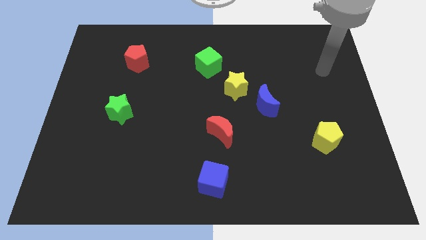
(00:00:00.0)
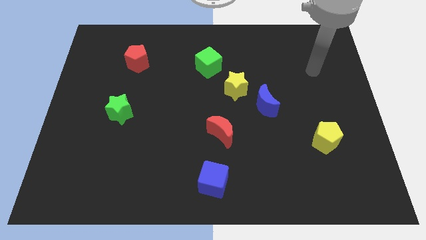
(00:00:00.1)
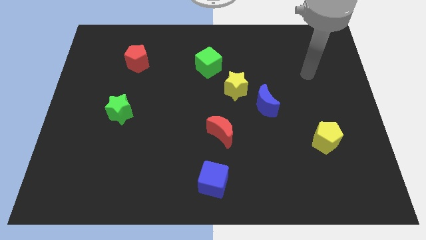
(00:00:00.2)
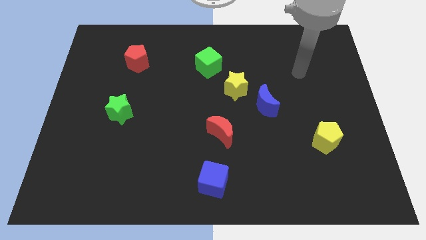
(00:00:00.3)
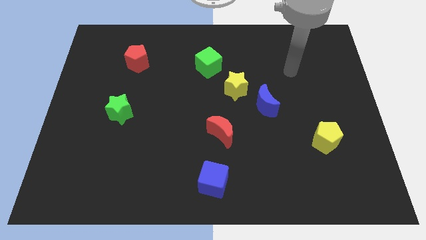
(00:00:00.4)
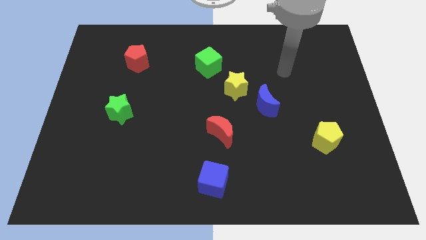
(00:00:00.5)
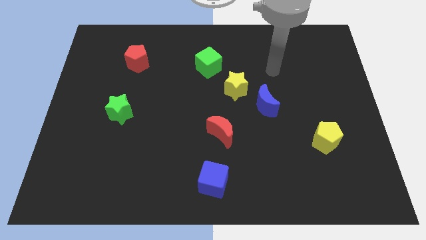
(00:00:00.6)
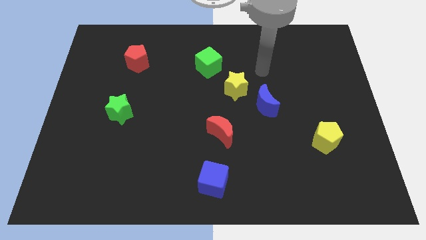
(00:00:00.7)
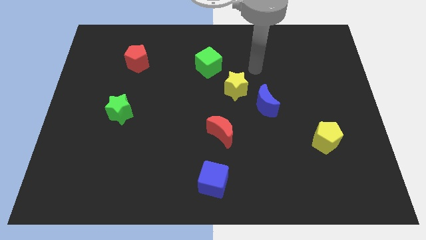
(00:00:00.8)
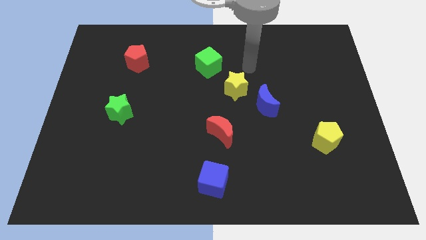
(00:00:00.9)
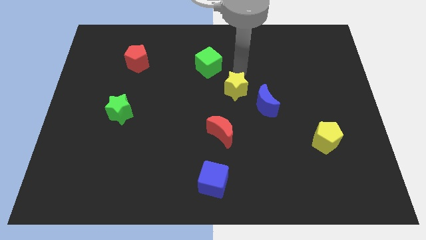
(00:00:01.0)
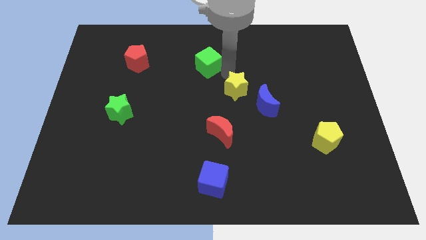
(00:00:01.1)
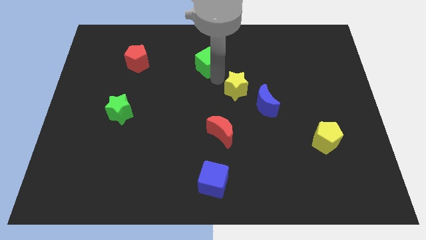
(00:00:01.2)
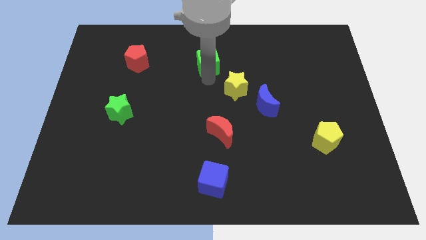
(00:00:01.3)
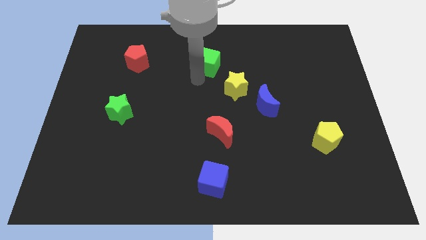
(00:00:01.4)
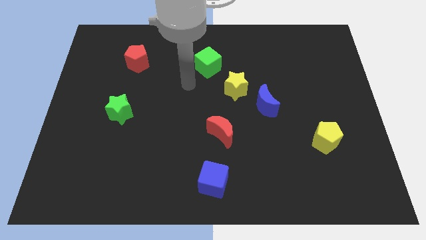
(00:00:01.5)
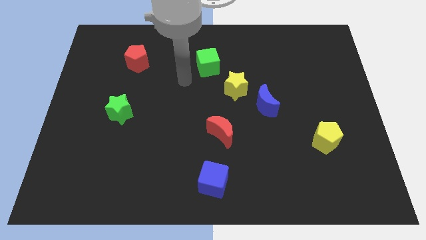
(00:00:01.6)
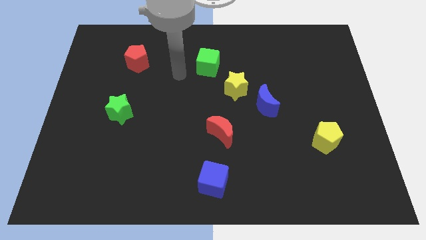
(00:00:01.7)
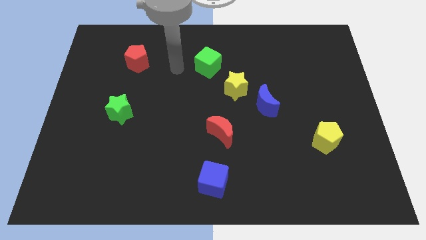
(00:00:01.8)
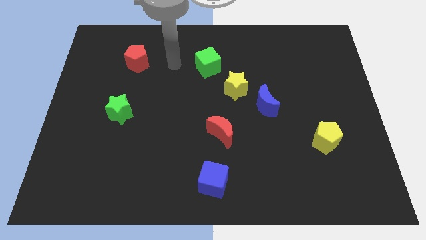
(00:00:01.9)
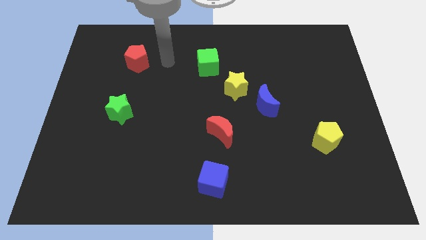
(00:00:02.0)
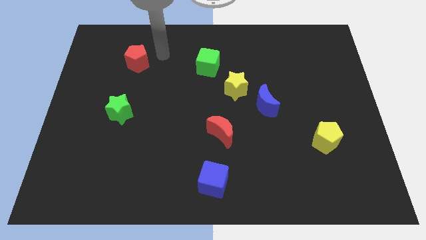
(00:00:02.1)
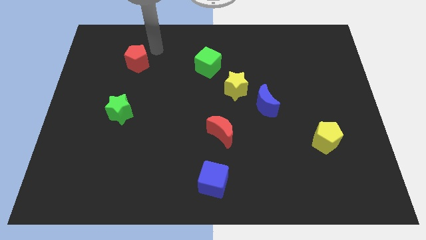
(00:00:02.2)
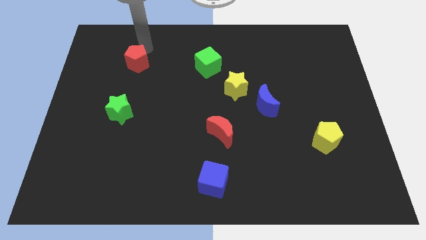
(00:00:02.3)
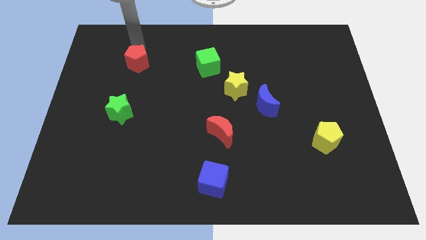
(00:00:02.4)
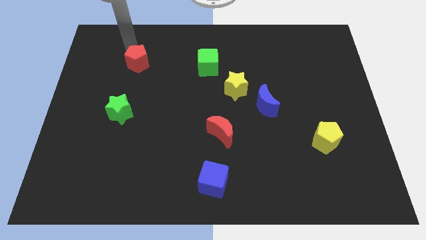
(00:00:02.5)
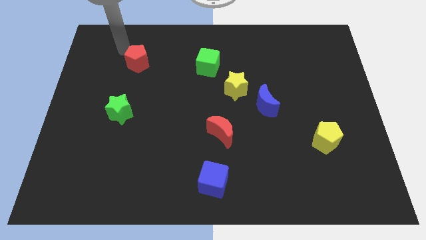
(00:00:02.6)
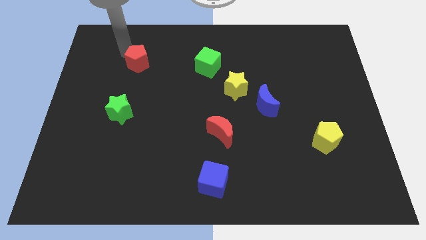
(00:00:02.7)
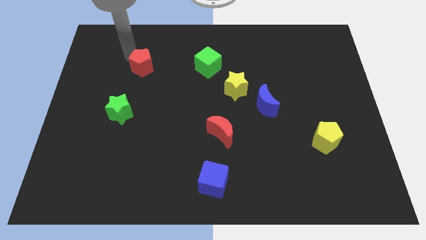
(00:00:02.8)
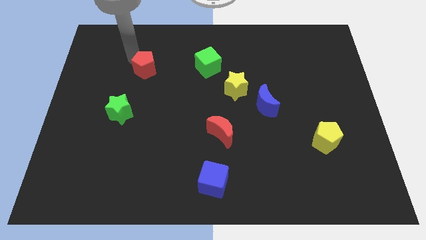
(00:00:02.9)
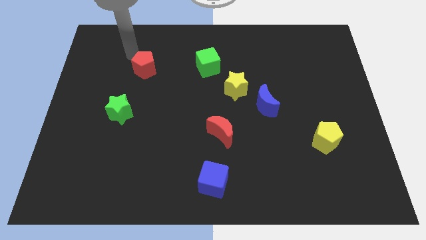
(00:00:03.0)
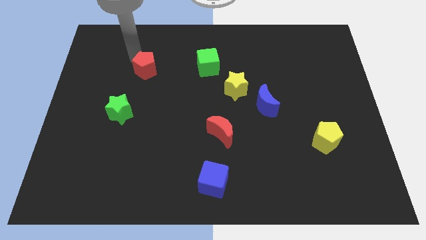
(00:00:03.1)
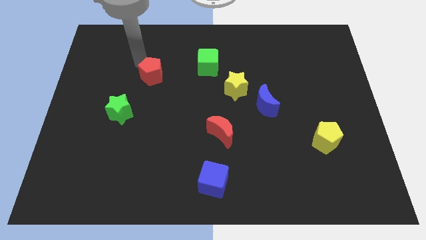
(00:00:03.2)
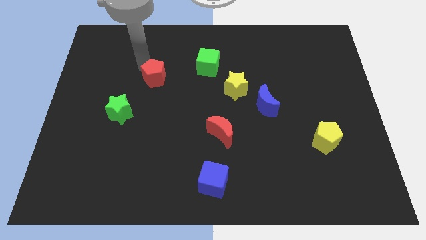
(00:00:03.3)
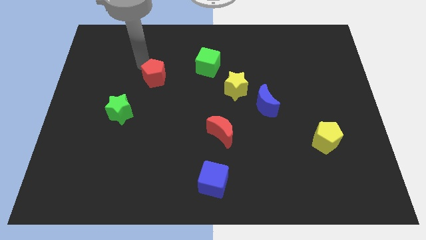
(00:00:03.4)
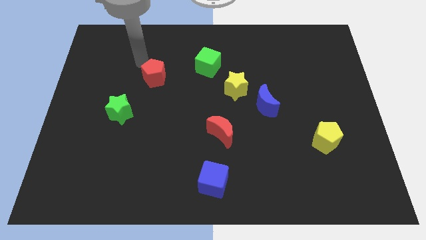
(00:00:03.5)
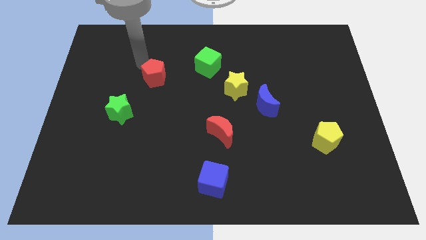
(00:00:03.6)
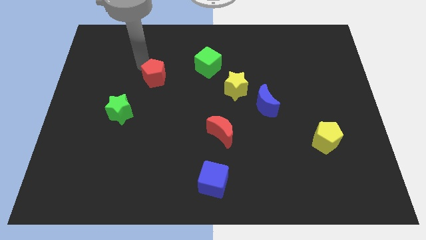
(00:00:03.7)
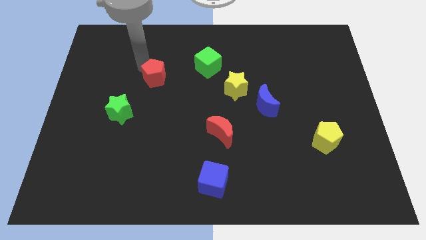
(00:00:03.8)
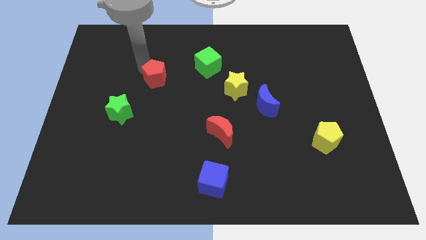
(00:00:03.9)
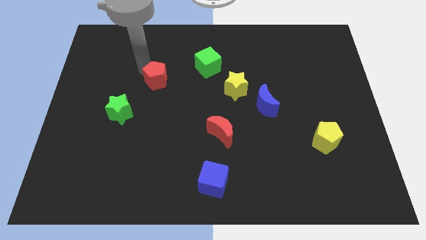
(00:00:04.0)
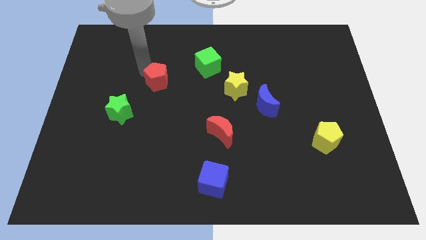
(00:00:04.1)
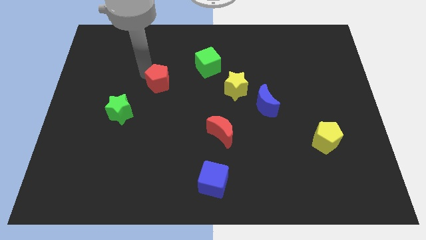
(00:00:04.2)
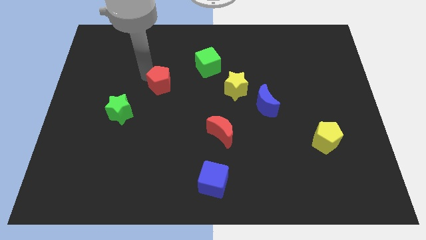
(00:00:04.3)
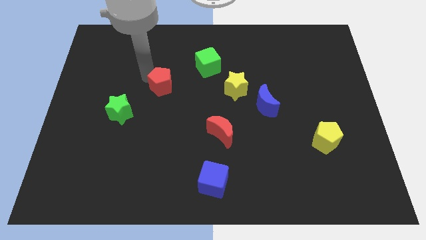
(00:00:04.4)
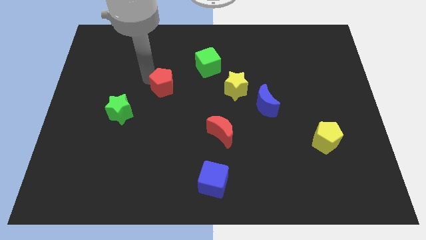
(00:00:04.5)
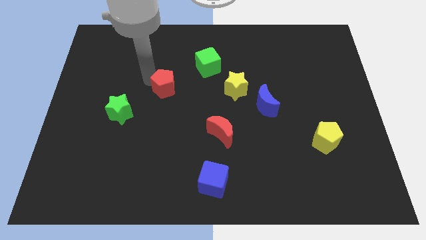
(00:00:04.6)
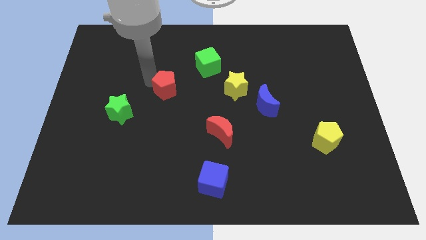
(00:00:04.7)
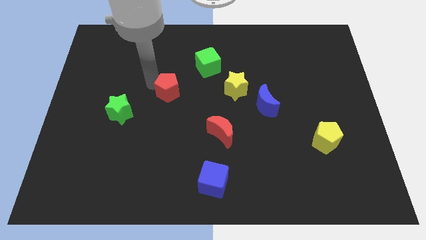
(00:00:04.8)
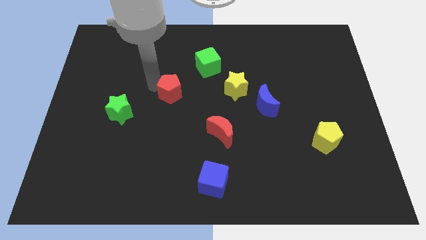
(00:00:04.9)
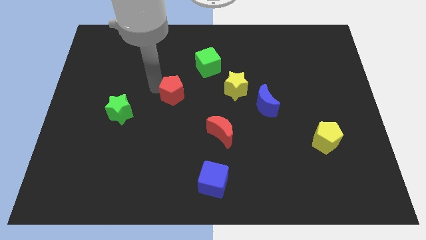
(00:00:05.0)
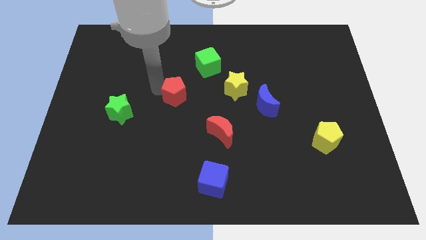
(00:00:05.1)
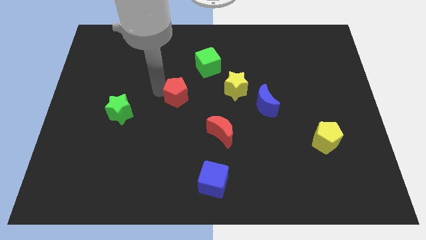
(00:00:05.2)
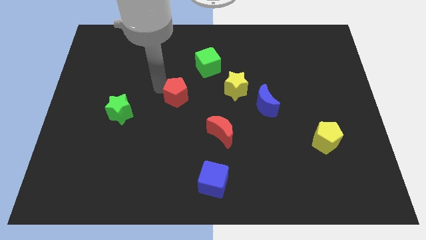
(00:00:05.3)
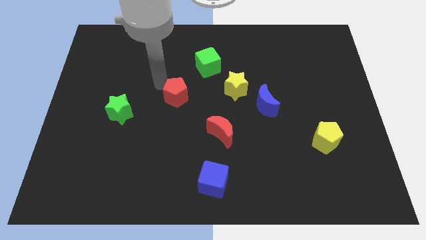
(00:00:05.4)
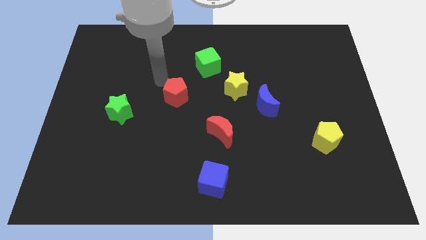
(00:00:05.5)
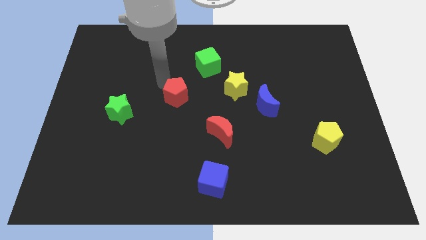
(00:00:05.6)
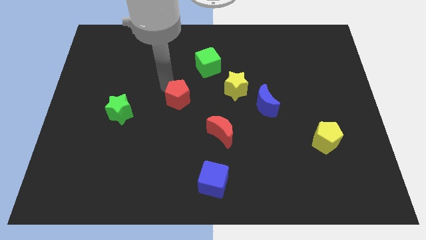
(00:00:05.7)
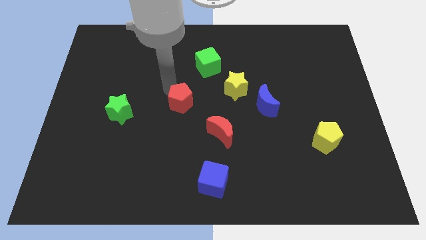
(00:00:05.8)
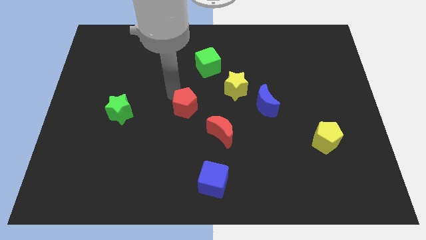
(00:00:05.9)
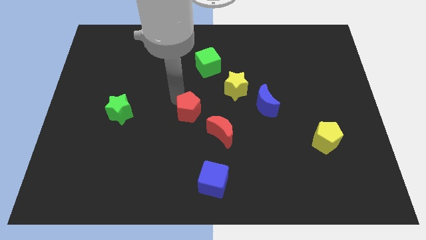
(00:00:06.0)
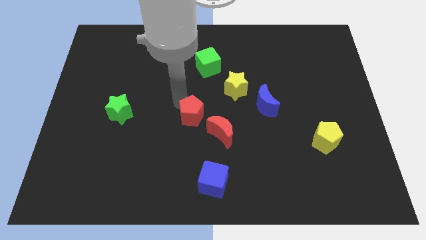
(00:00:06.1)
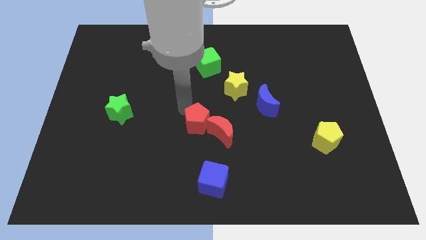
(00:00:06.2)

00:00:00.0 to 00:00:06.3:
put the red pentagon to the red moon

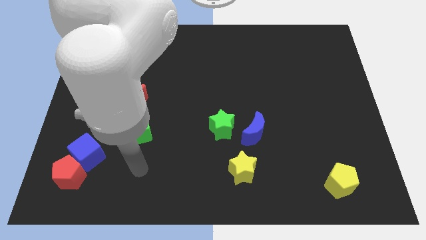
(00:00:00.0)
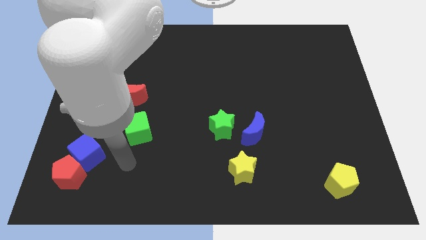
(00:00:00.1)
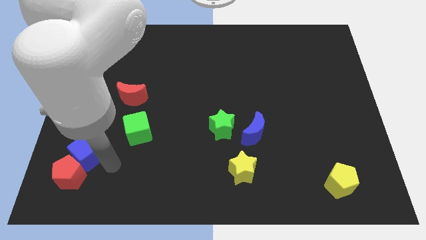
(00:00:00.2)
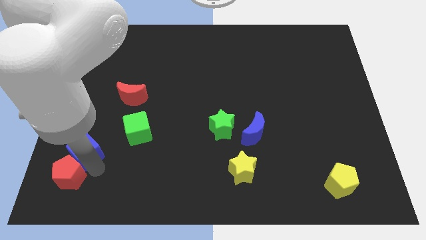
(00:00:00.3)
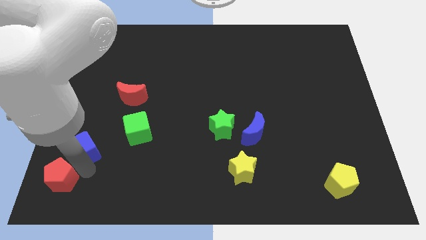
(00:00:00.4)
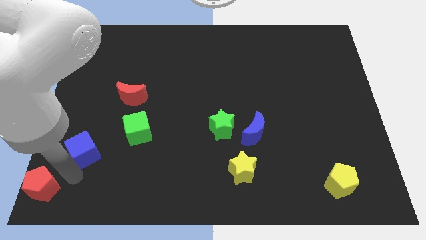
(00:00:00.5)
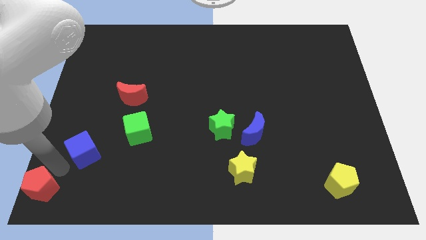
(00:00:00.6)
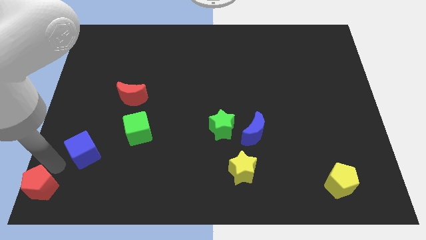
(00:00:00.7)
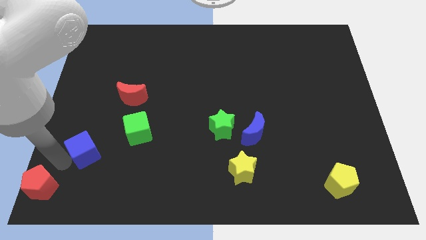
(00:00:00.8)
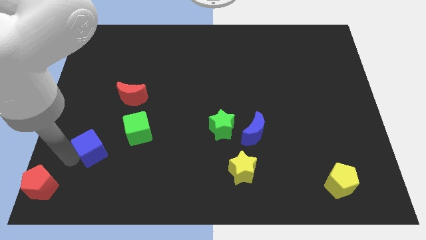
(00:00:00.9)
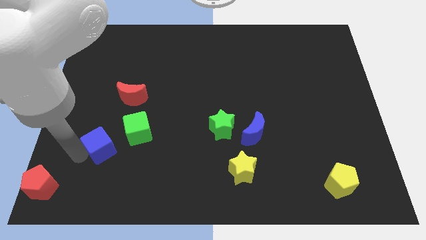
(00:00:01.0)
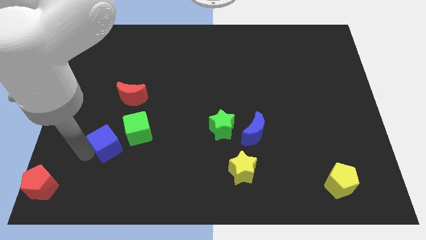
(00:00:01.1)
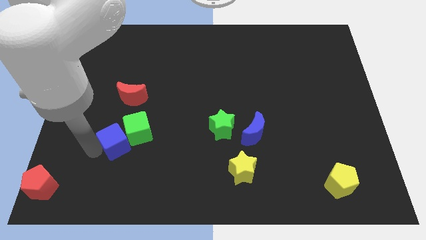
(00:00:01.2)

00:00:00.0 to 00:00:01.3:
slide the blue cube to the green cube
